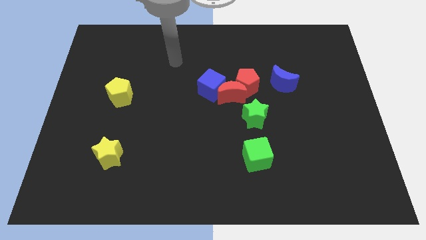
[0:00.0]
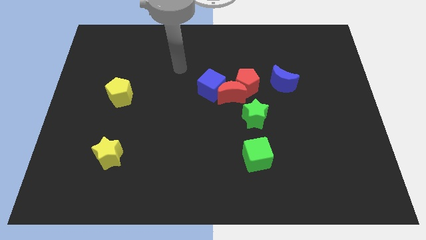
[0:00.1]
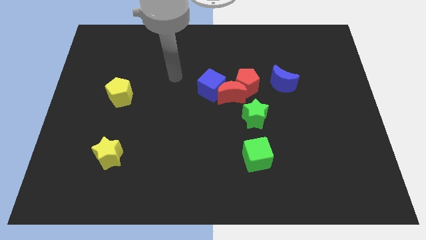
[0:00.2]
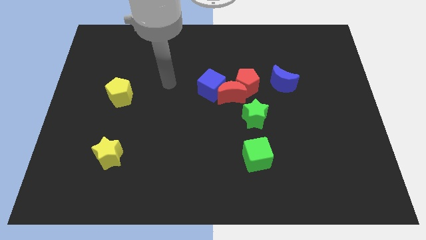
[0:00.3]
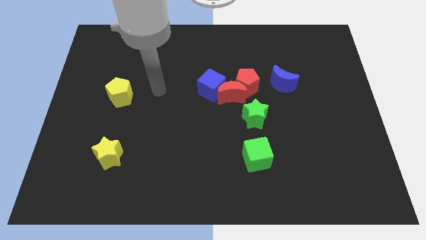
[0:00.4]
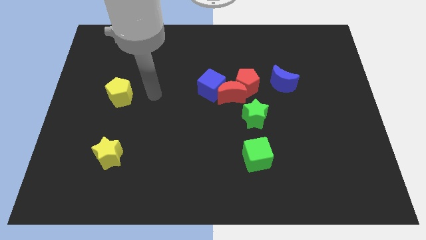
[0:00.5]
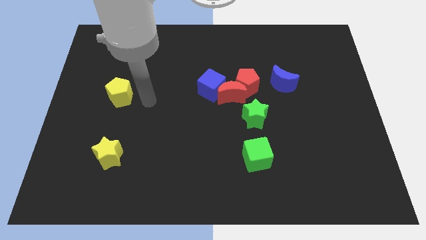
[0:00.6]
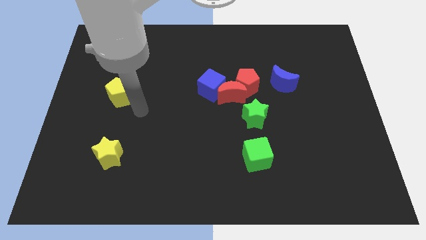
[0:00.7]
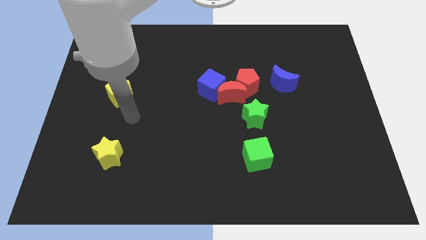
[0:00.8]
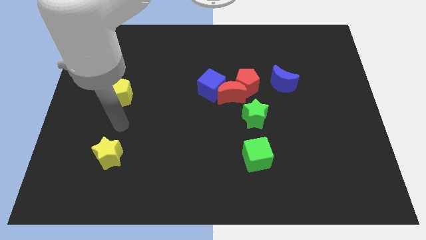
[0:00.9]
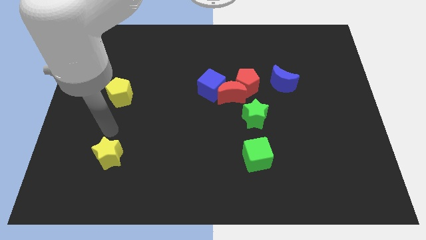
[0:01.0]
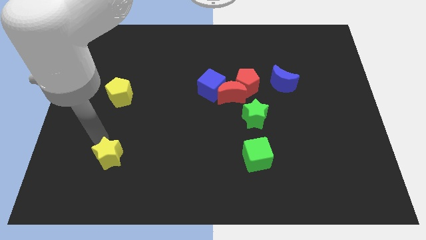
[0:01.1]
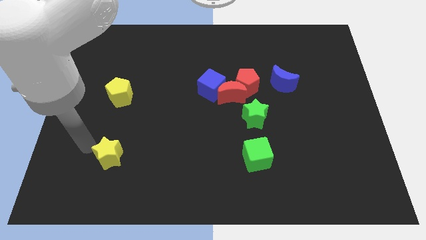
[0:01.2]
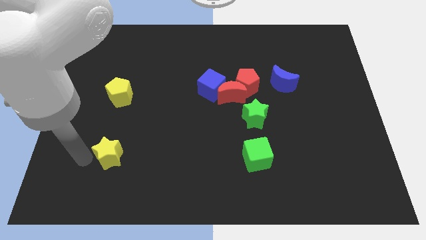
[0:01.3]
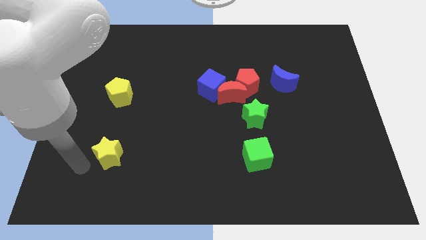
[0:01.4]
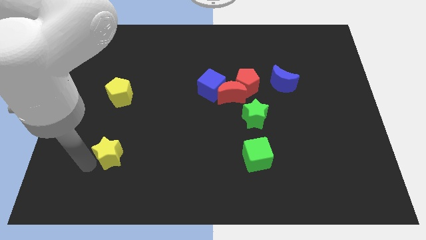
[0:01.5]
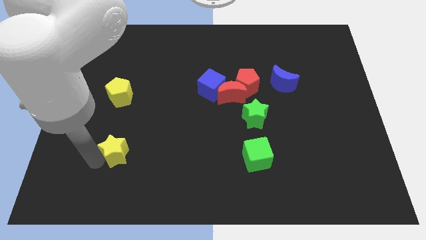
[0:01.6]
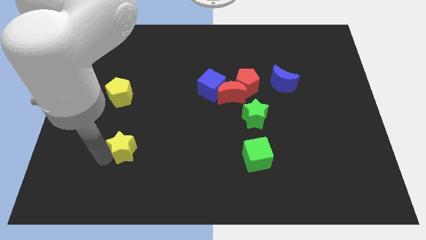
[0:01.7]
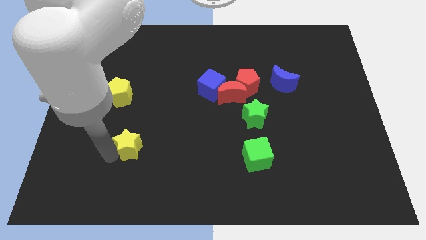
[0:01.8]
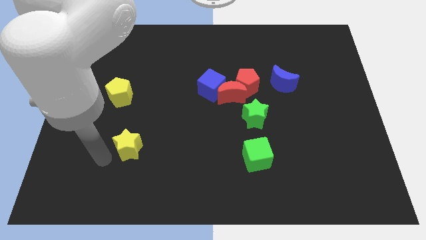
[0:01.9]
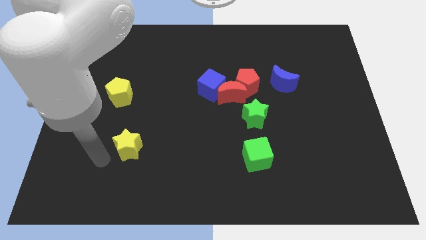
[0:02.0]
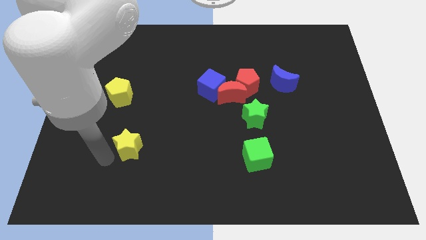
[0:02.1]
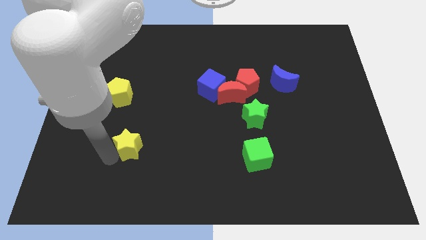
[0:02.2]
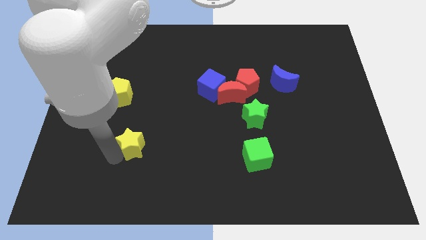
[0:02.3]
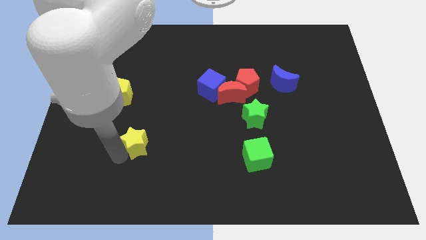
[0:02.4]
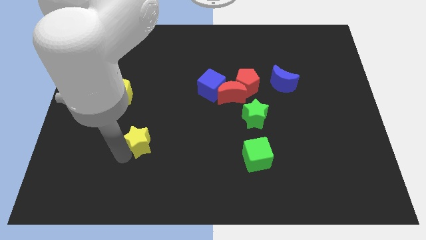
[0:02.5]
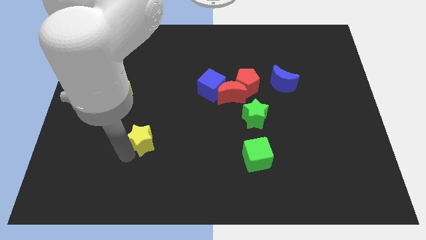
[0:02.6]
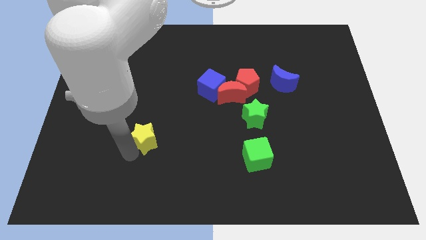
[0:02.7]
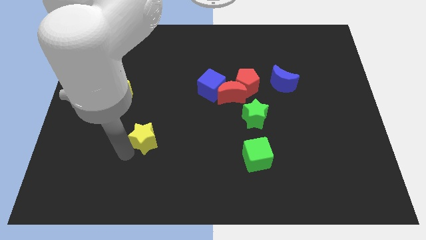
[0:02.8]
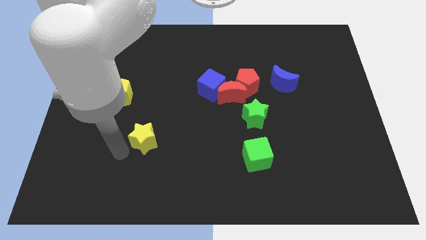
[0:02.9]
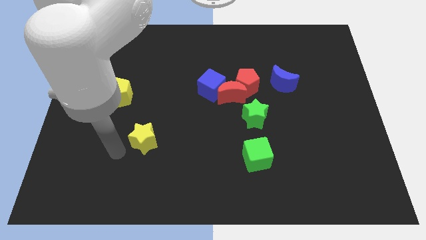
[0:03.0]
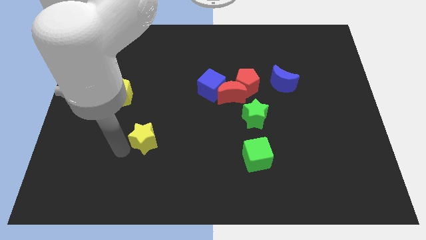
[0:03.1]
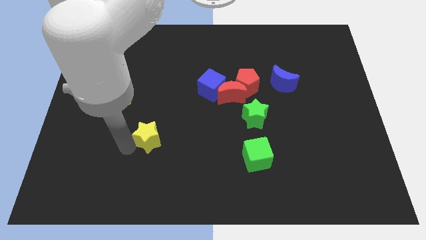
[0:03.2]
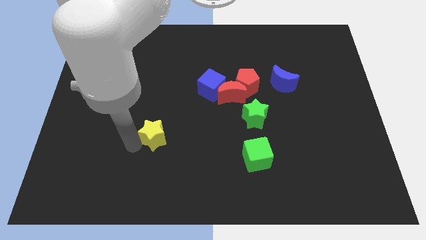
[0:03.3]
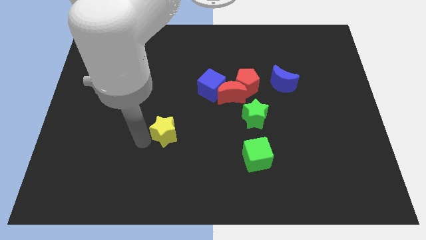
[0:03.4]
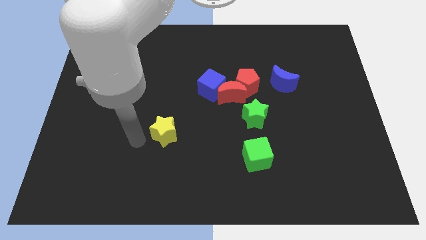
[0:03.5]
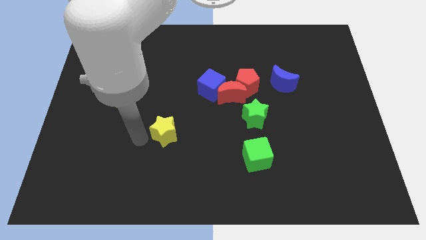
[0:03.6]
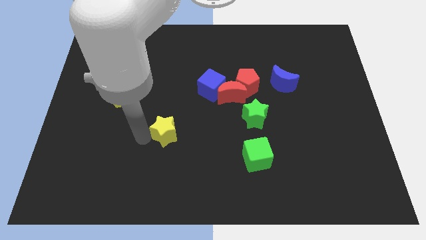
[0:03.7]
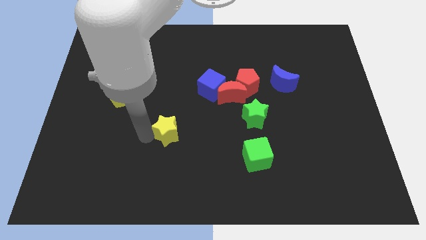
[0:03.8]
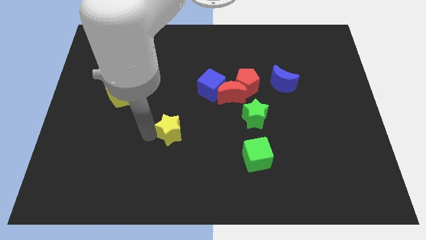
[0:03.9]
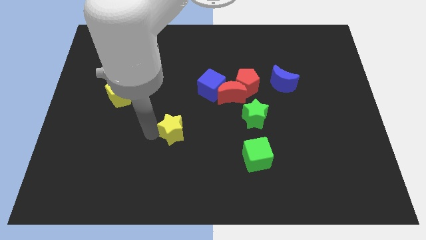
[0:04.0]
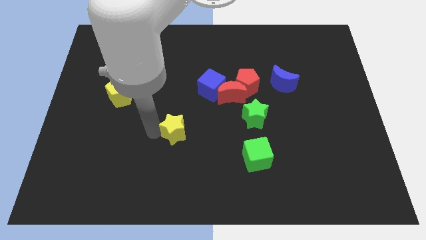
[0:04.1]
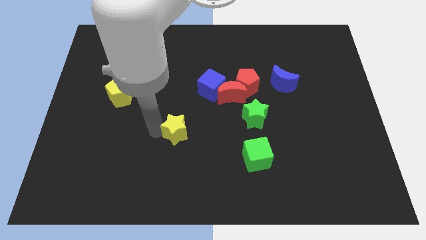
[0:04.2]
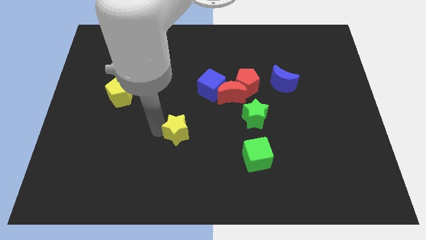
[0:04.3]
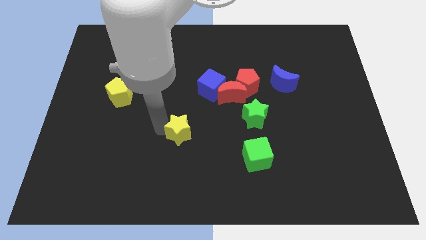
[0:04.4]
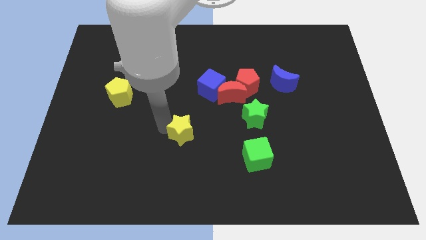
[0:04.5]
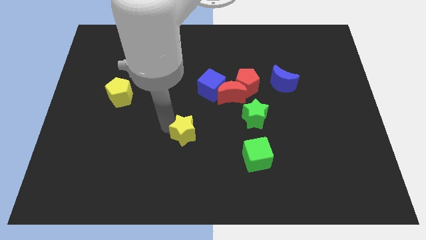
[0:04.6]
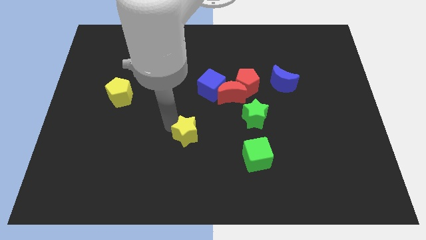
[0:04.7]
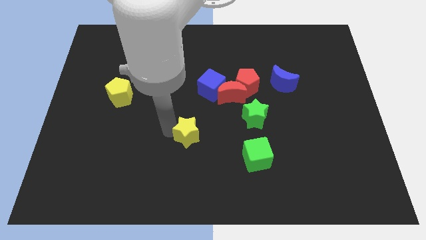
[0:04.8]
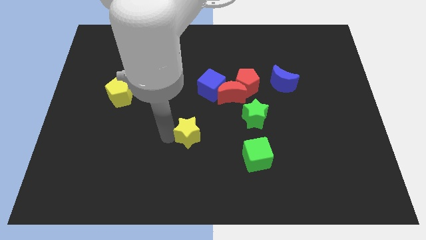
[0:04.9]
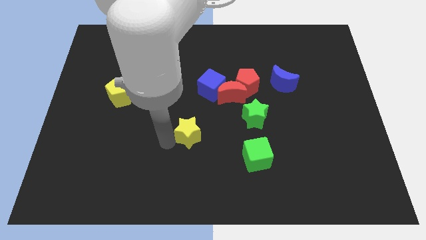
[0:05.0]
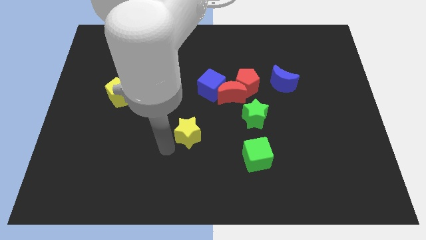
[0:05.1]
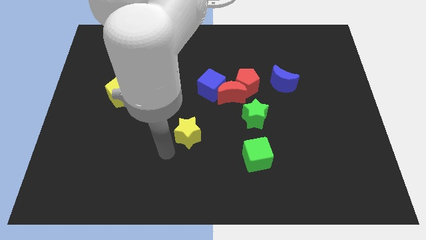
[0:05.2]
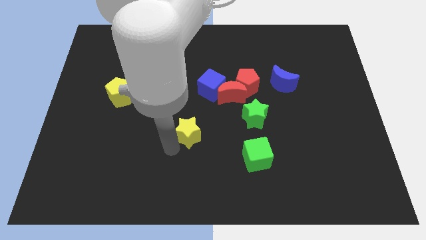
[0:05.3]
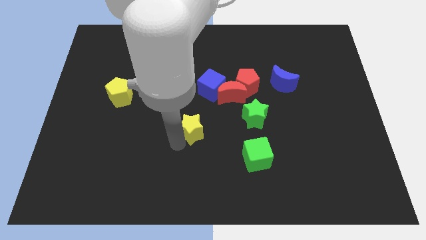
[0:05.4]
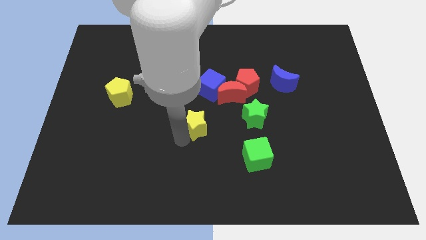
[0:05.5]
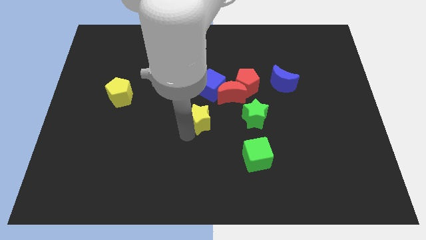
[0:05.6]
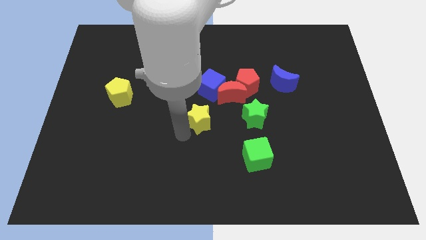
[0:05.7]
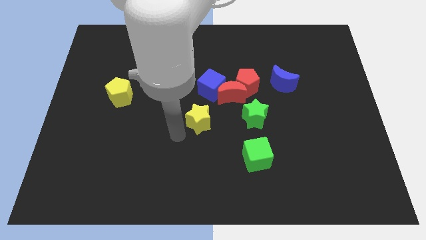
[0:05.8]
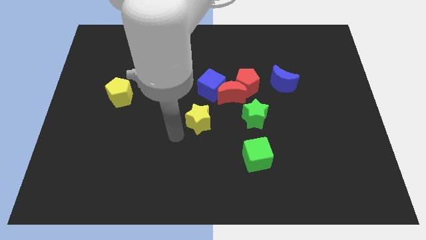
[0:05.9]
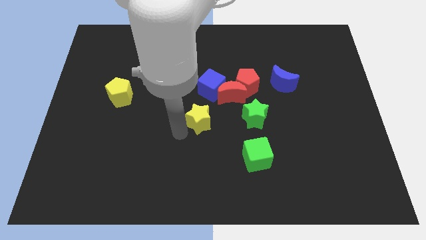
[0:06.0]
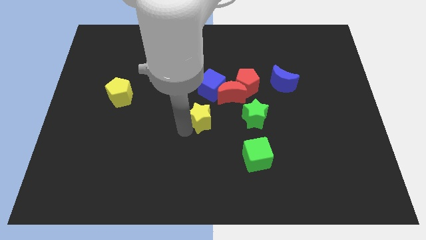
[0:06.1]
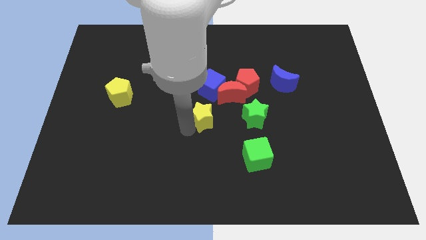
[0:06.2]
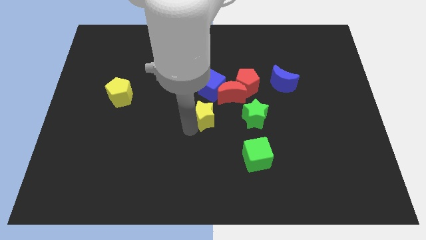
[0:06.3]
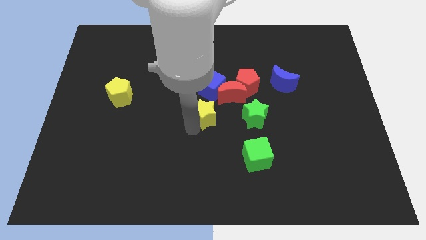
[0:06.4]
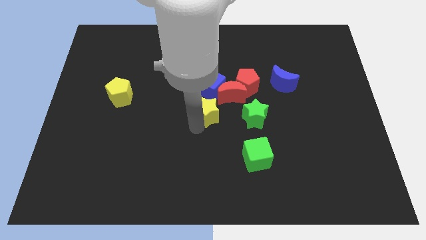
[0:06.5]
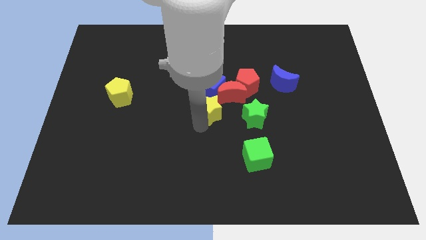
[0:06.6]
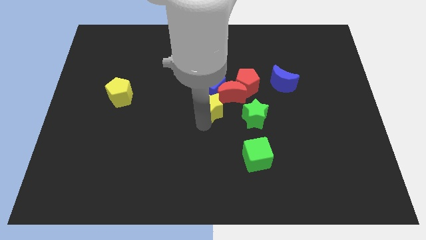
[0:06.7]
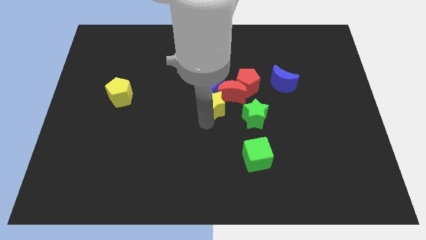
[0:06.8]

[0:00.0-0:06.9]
push the yellow star to the red moon

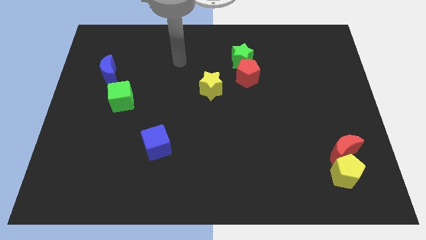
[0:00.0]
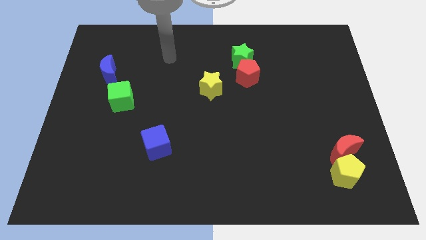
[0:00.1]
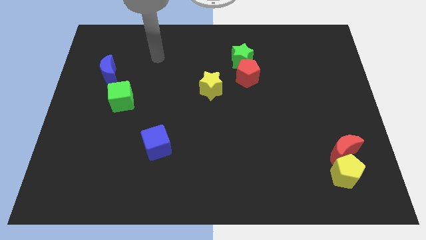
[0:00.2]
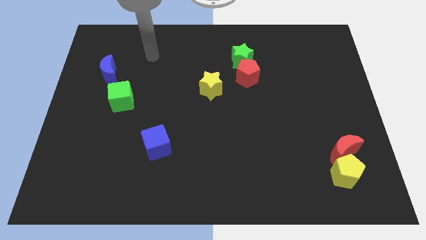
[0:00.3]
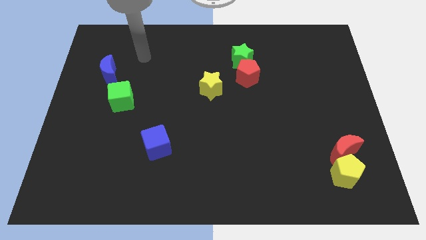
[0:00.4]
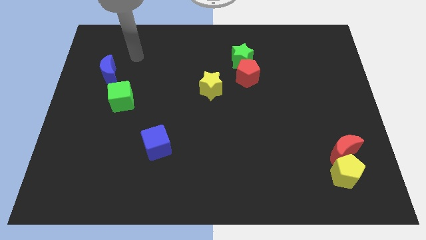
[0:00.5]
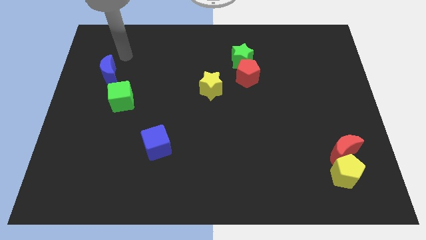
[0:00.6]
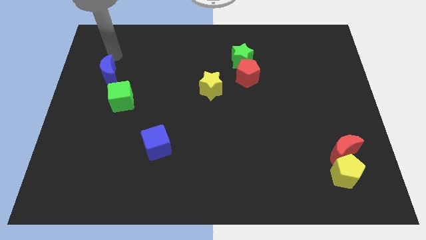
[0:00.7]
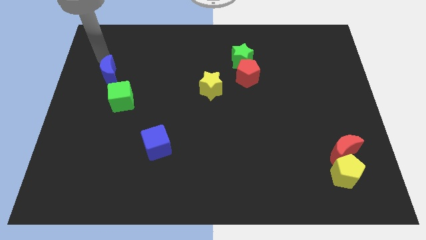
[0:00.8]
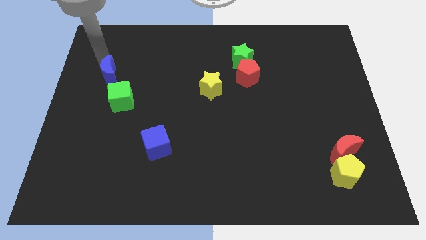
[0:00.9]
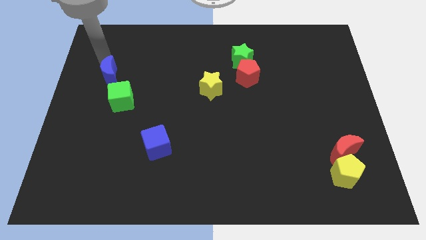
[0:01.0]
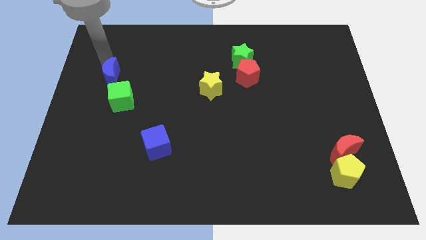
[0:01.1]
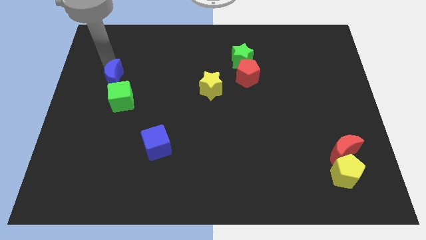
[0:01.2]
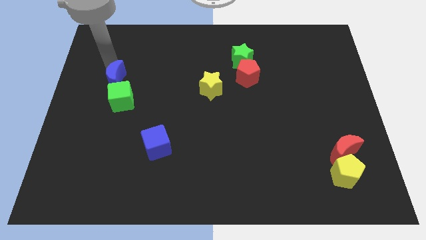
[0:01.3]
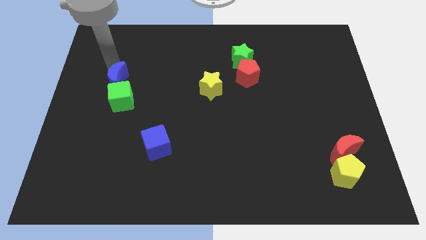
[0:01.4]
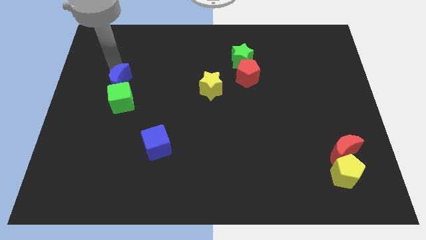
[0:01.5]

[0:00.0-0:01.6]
push the blue moon to the green cube
